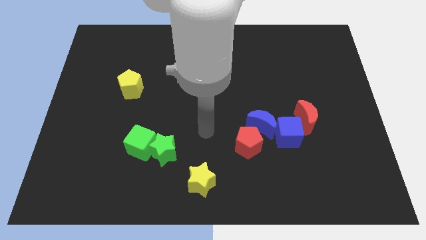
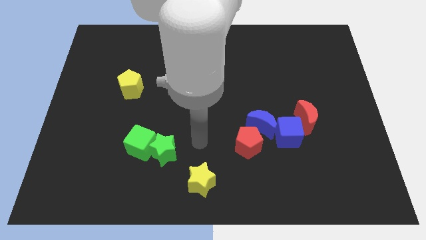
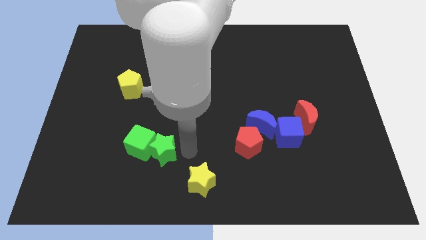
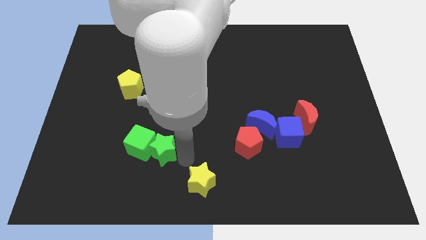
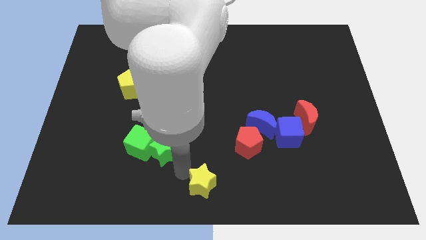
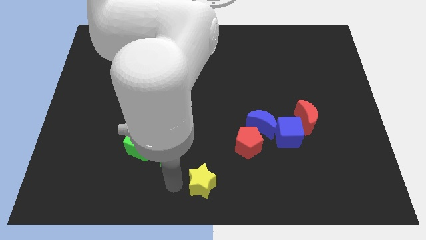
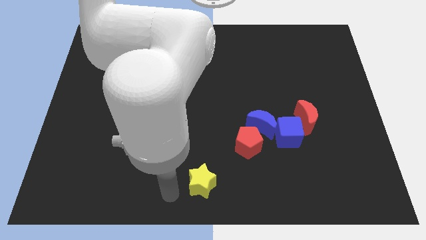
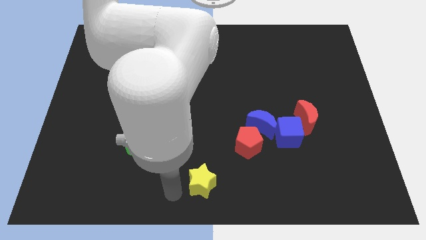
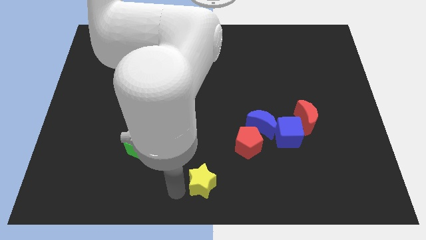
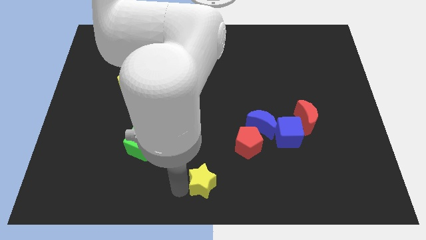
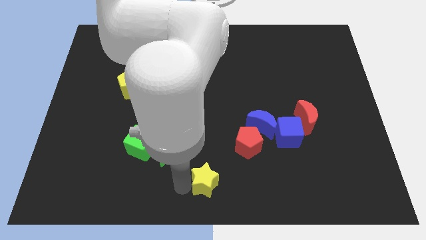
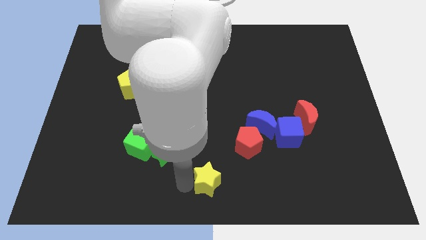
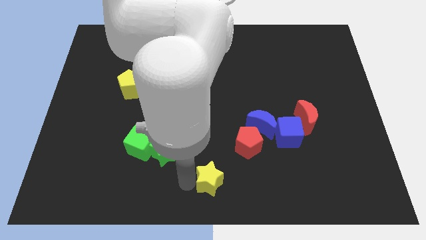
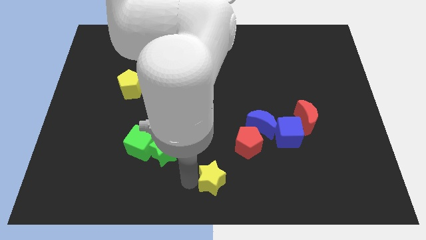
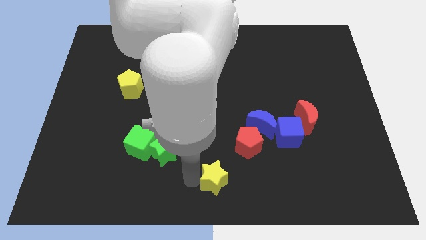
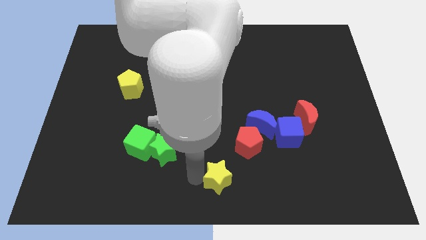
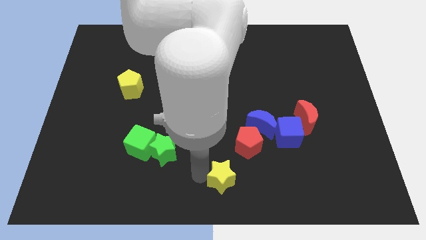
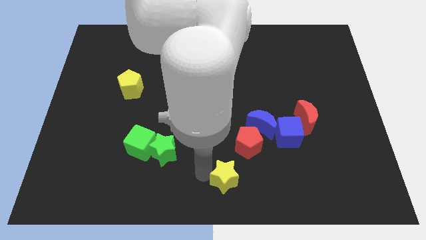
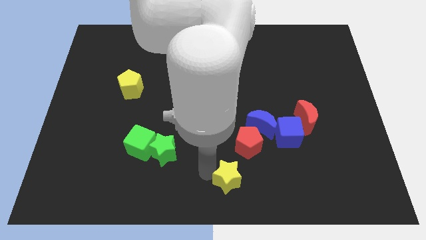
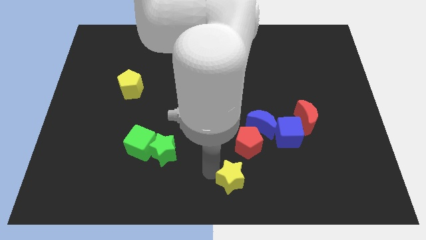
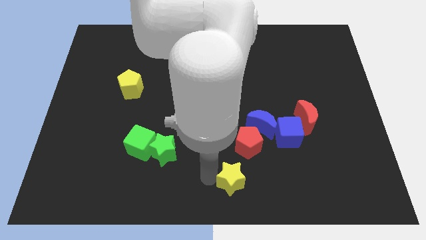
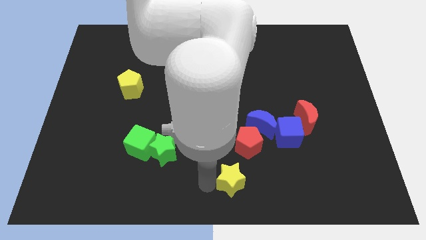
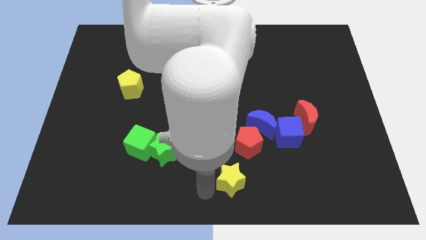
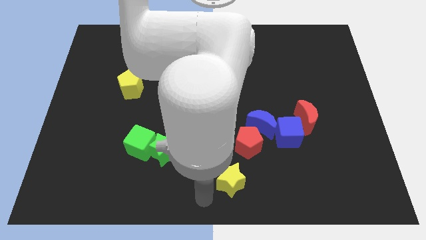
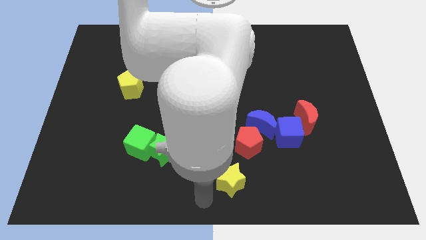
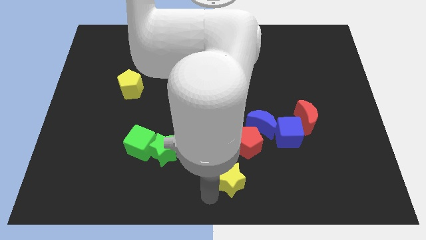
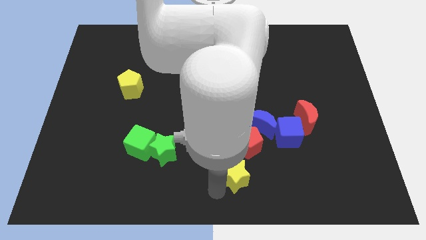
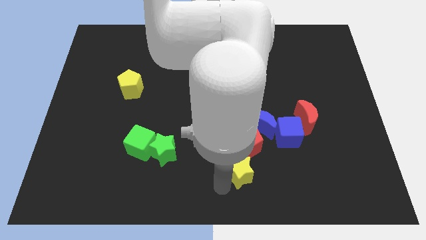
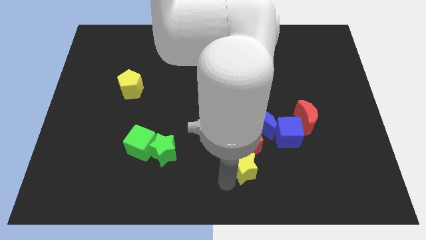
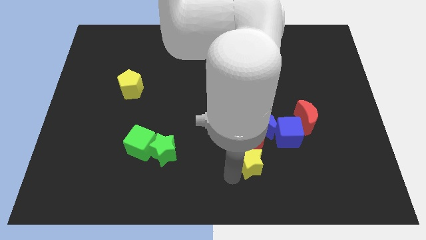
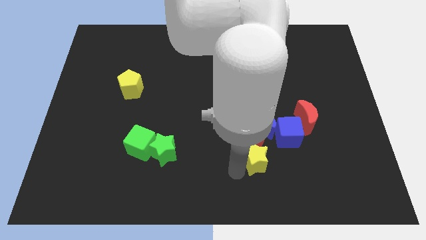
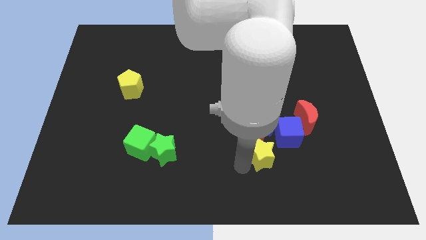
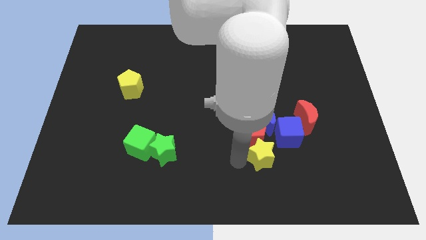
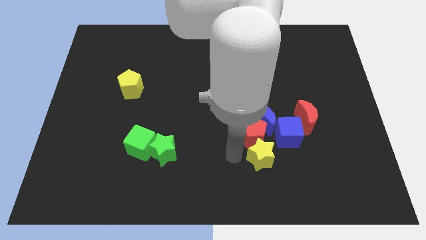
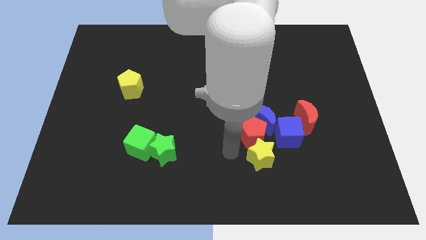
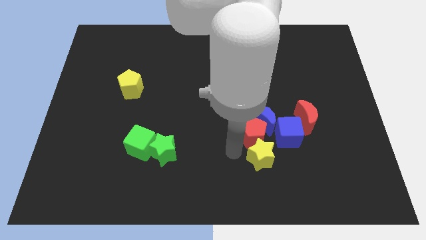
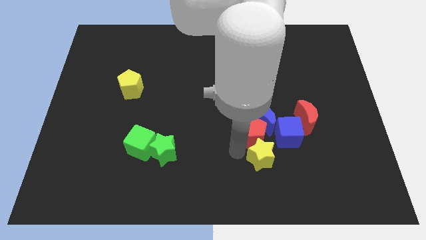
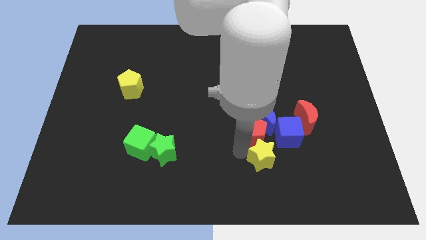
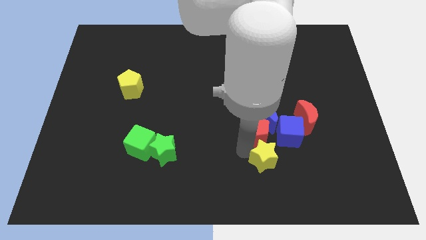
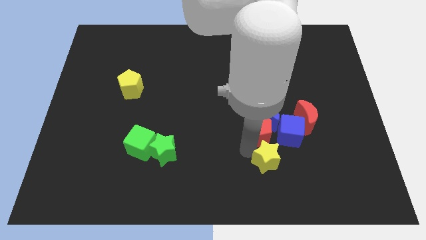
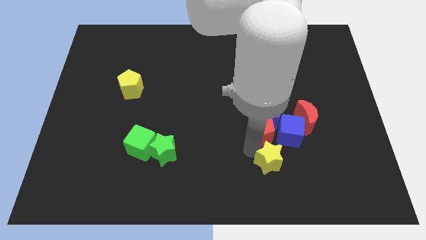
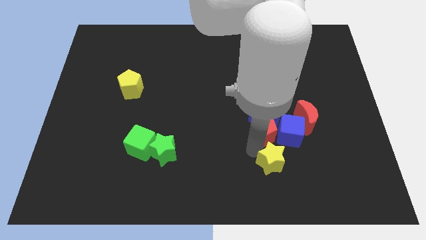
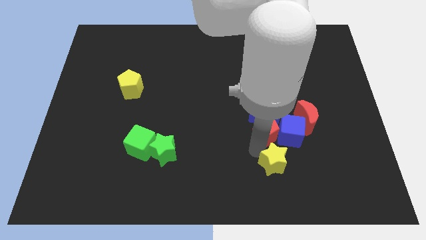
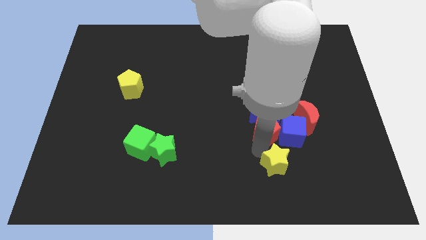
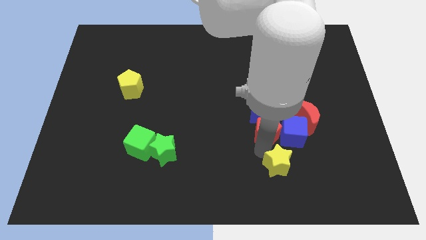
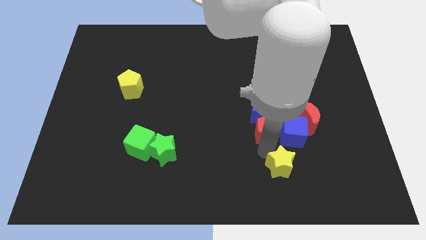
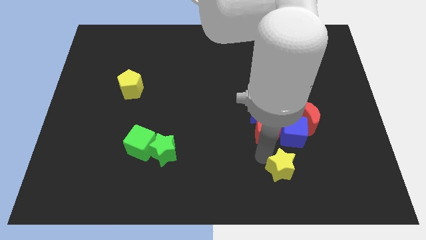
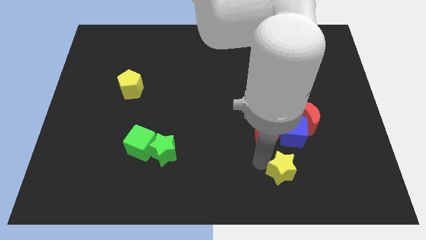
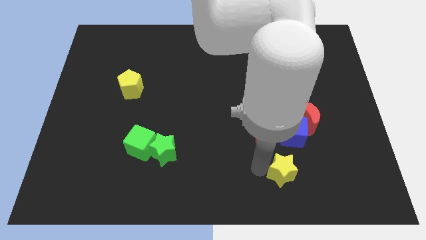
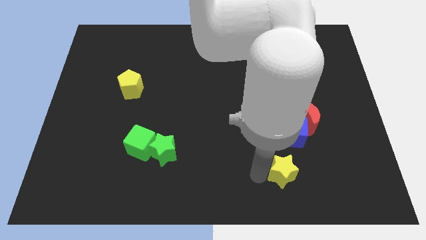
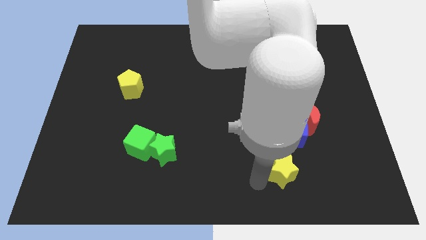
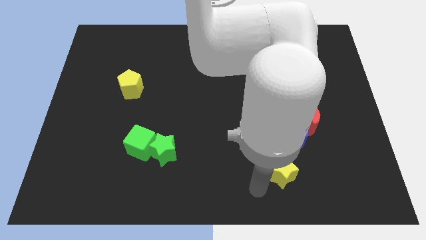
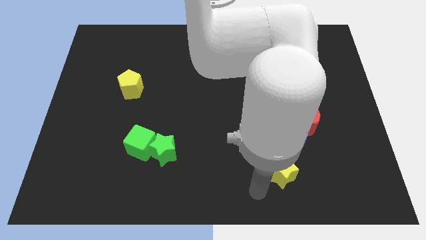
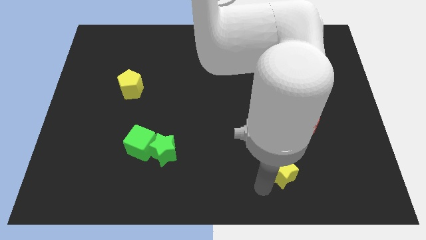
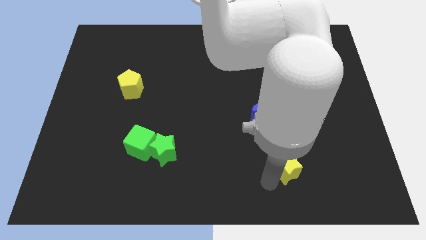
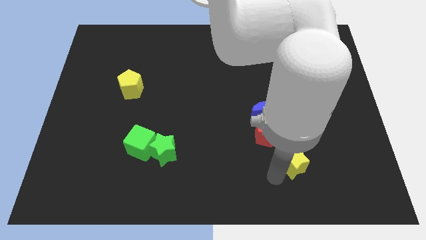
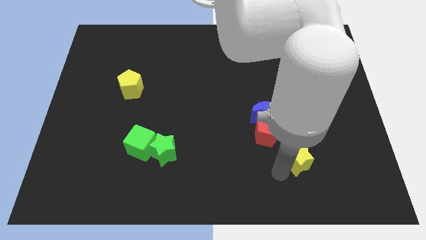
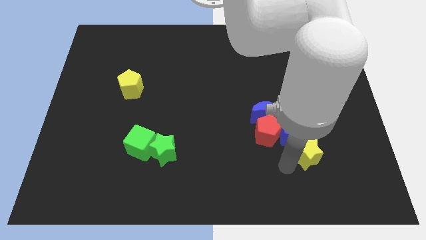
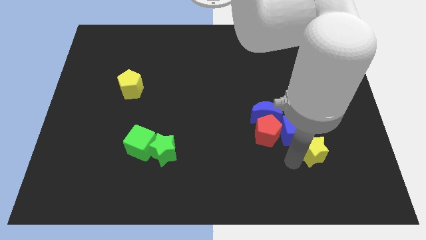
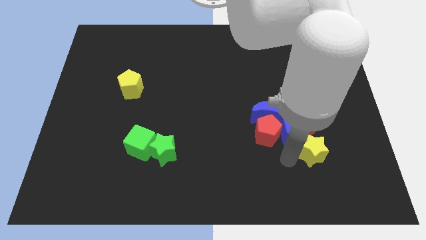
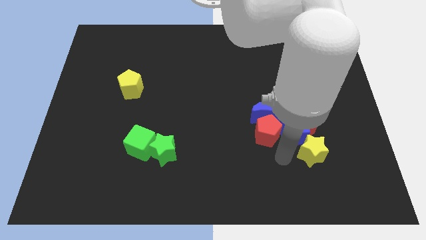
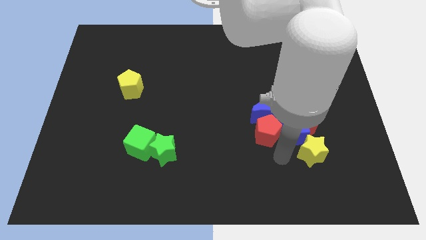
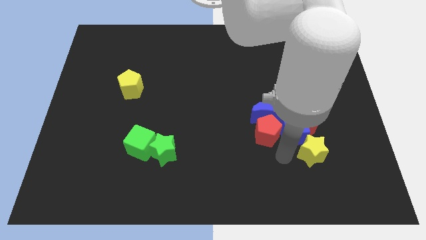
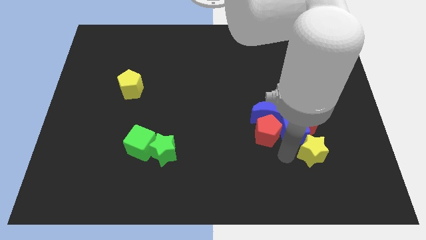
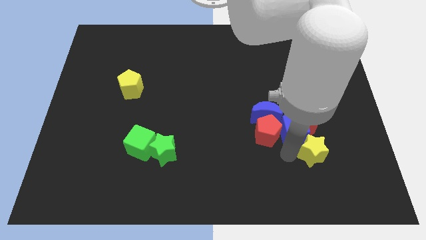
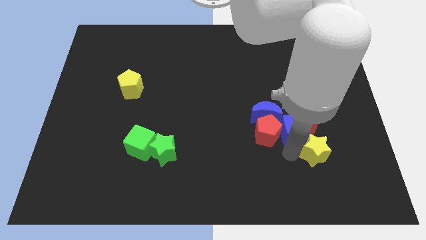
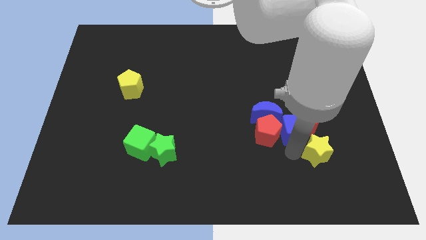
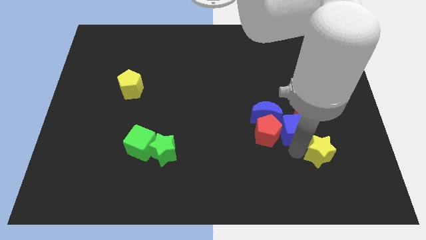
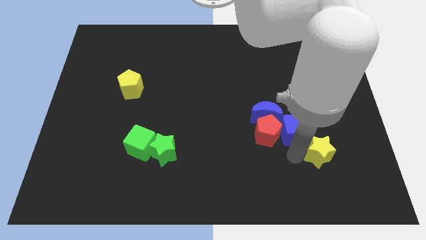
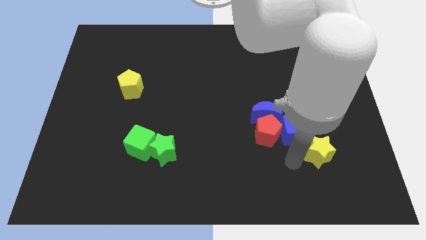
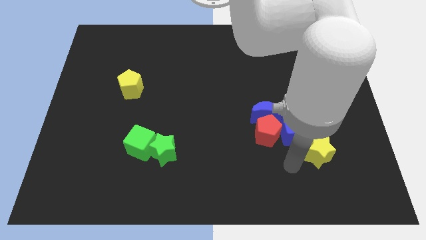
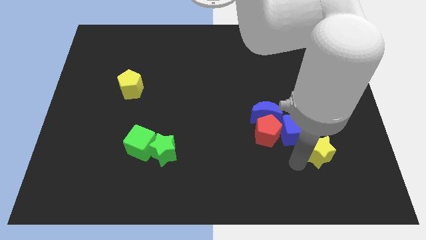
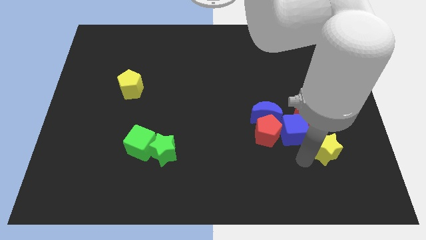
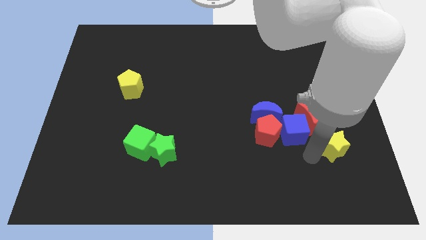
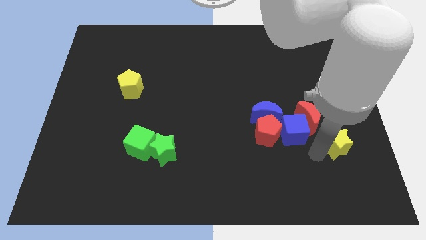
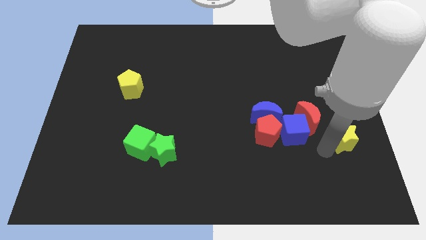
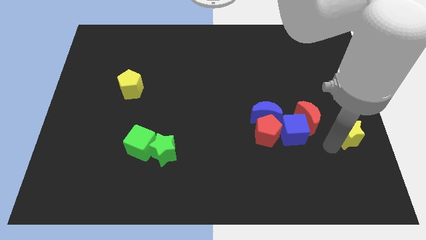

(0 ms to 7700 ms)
push the yellow star to the center right
